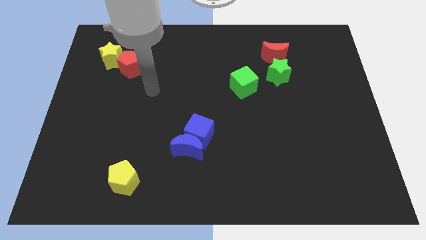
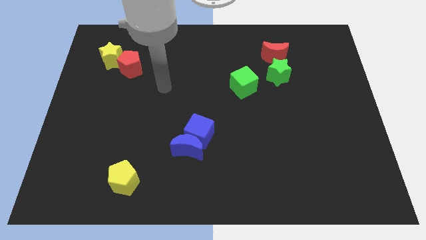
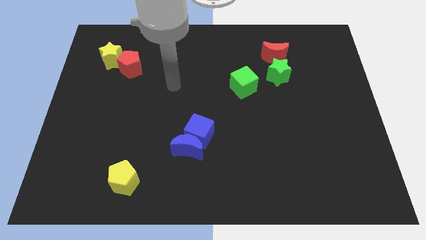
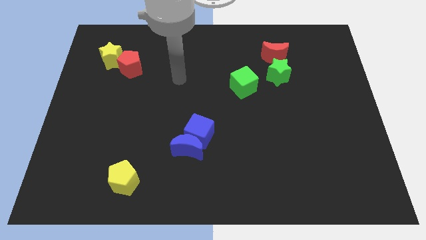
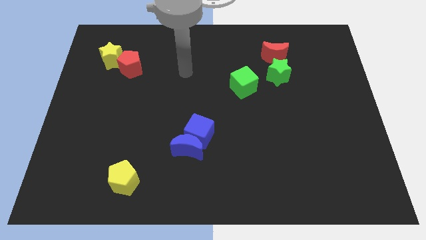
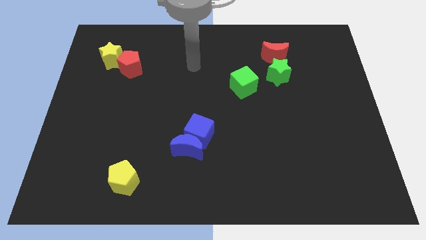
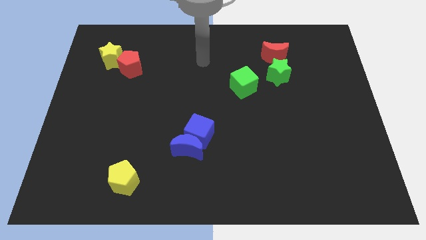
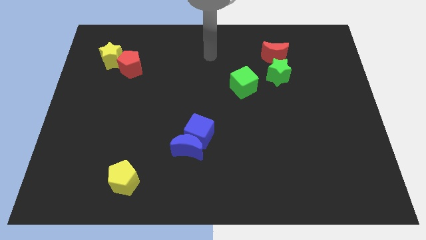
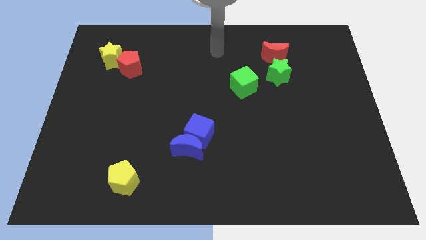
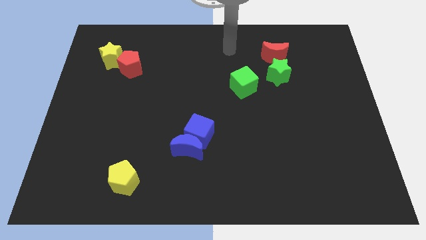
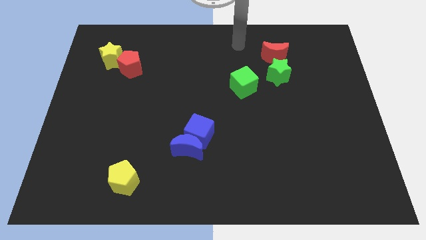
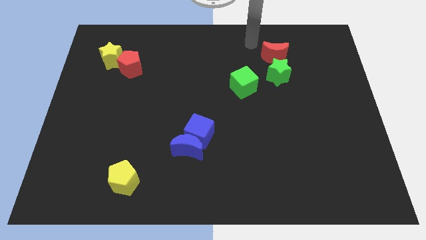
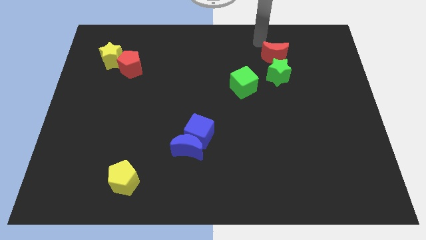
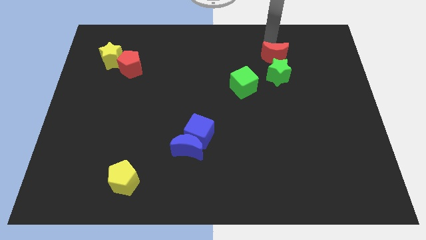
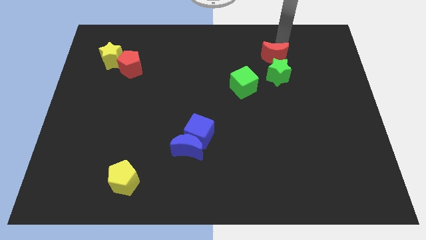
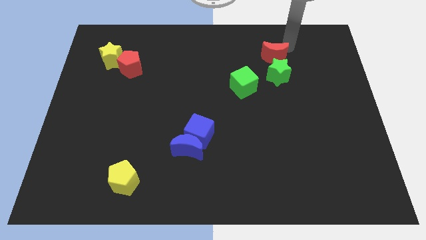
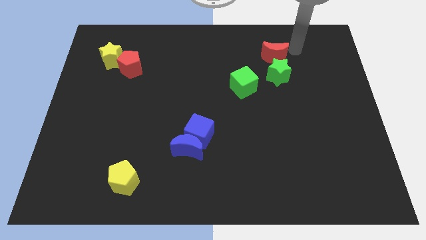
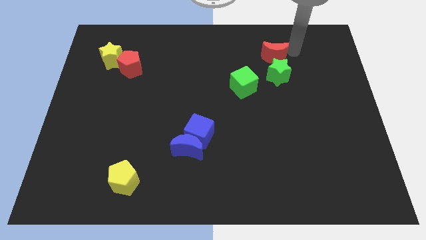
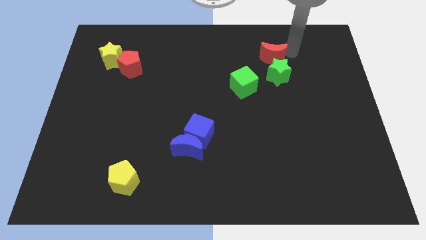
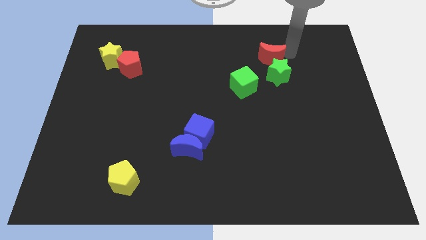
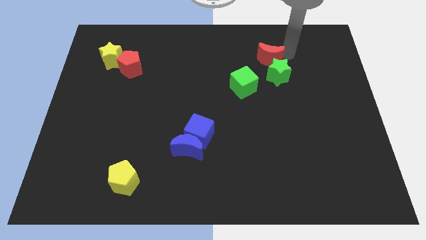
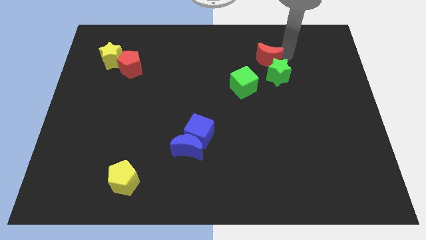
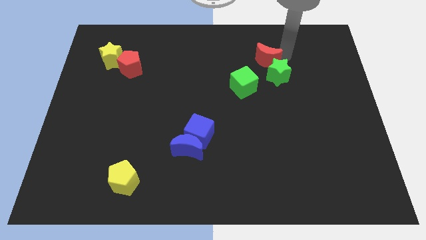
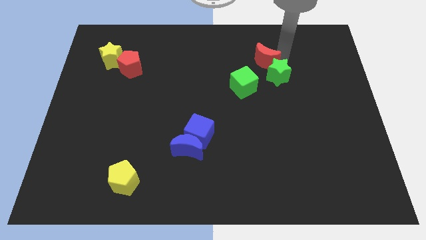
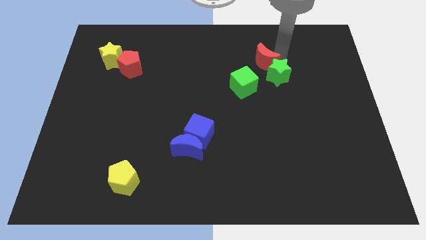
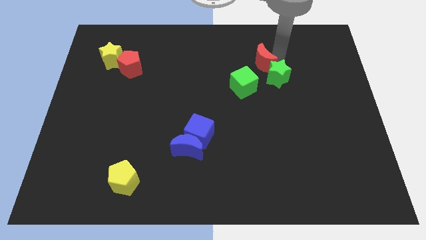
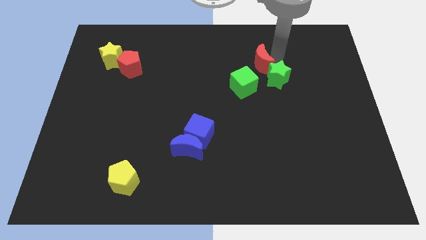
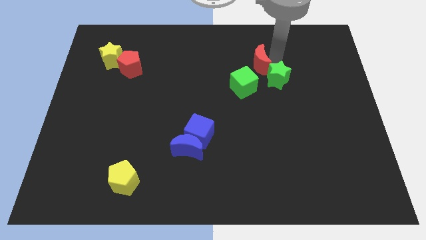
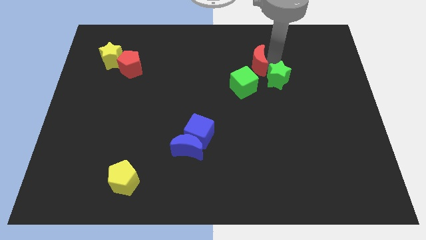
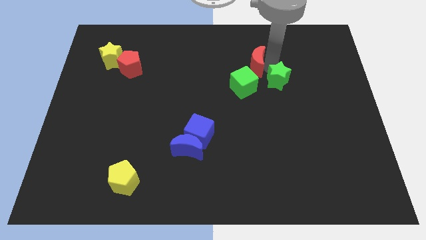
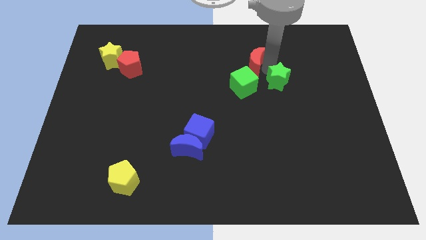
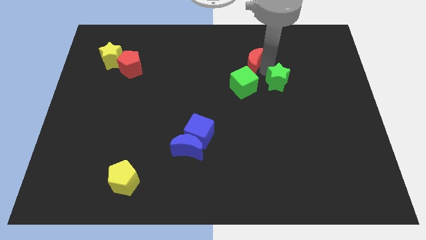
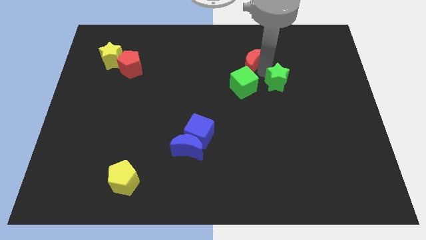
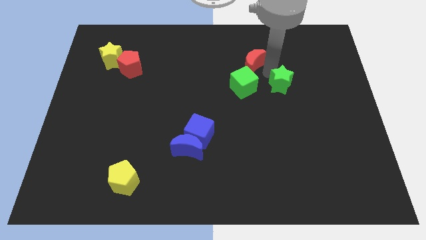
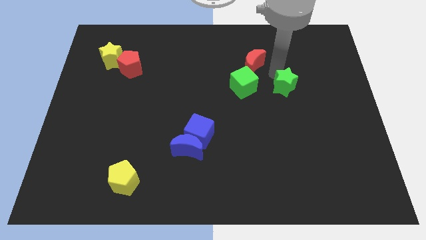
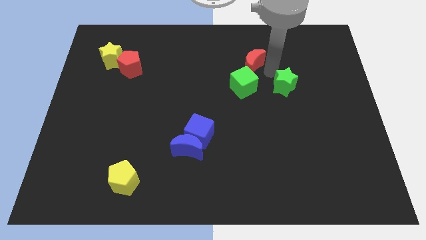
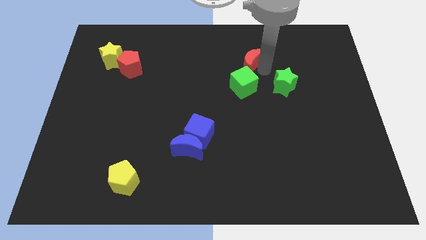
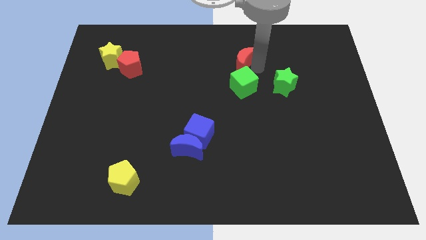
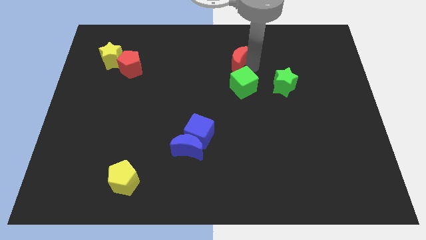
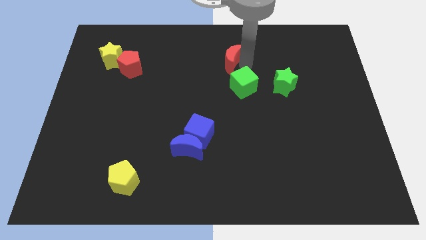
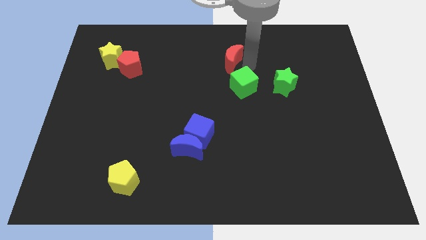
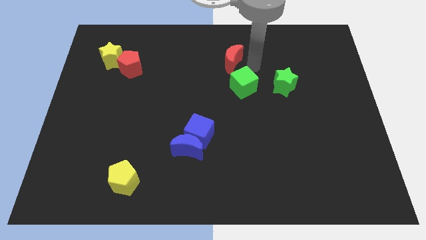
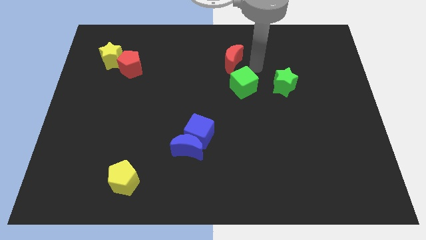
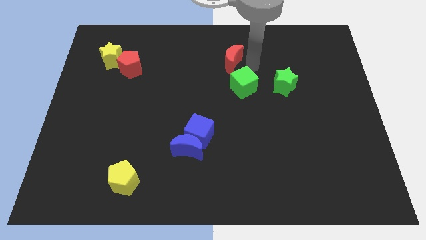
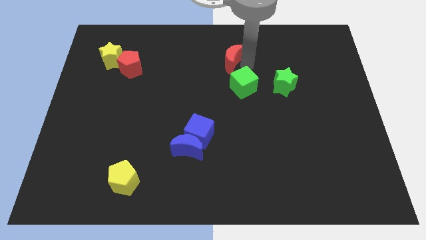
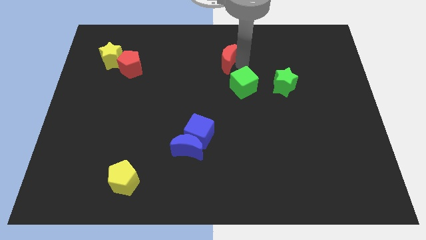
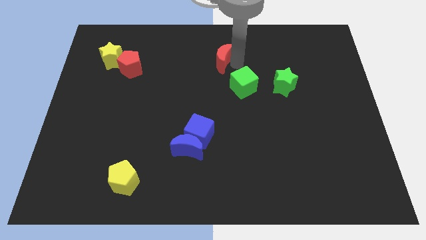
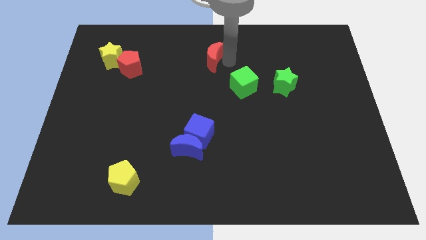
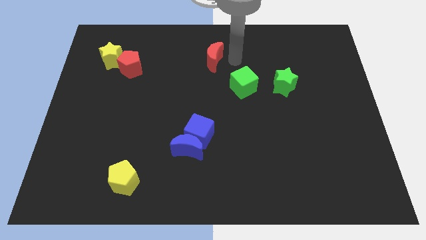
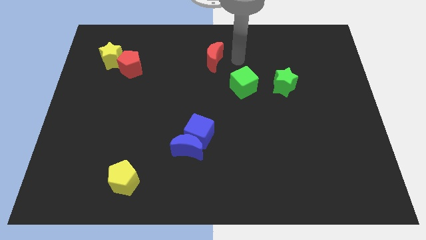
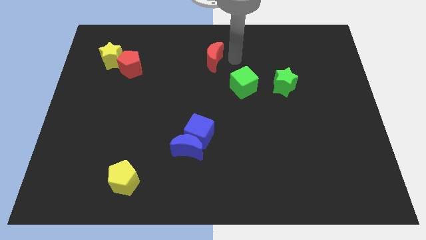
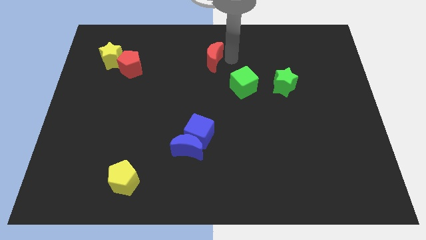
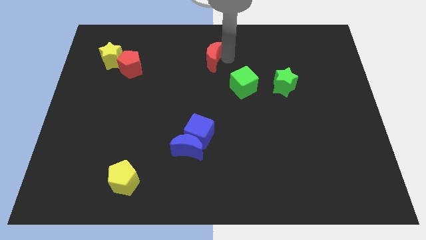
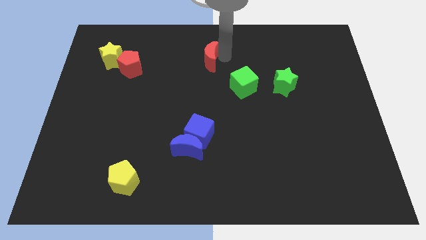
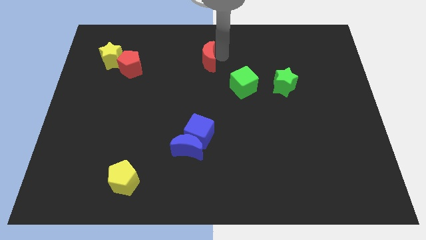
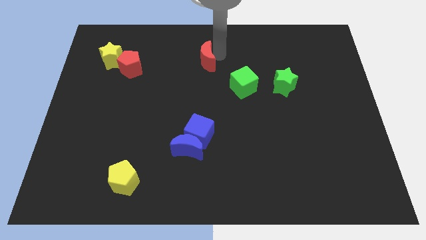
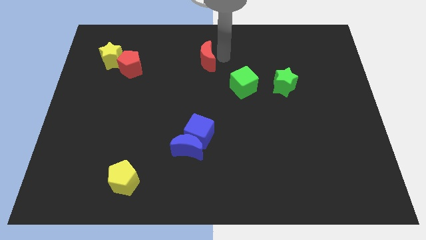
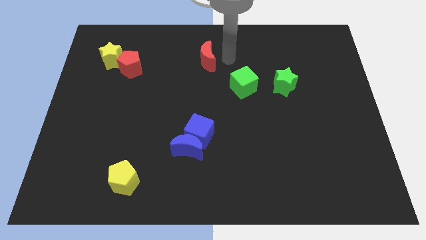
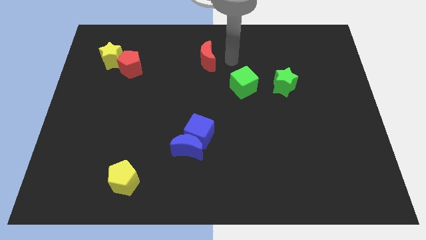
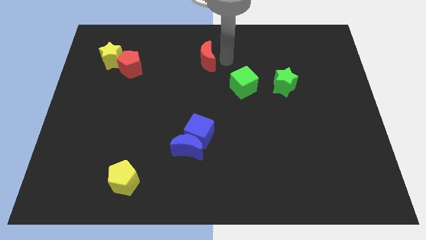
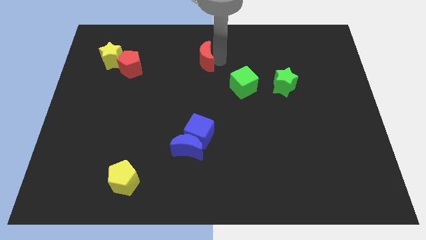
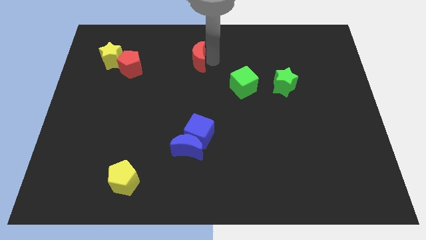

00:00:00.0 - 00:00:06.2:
move the red moon left

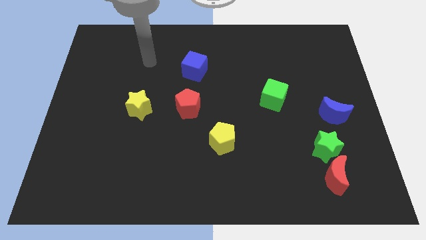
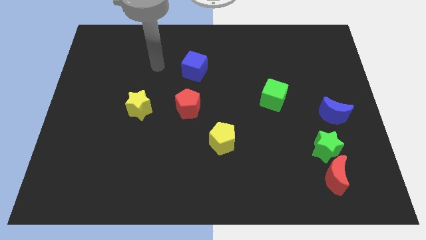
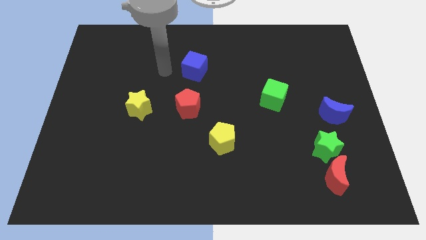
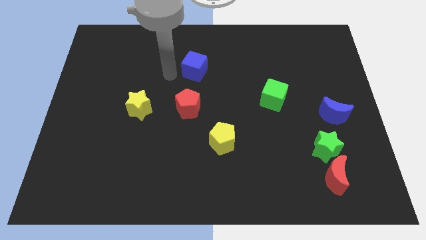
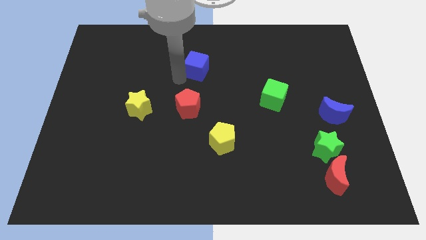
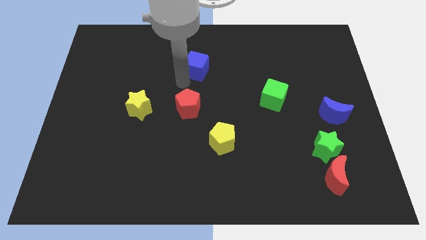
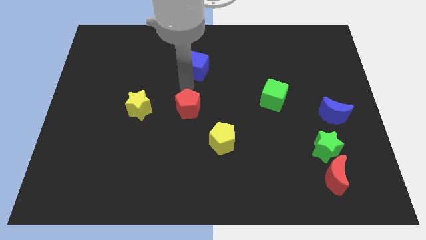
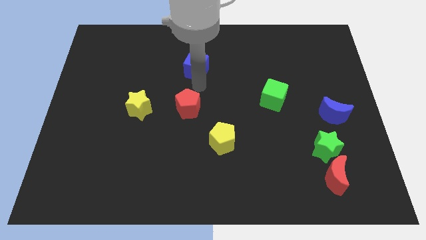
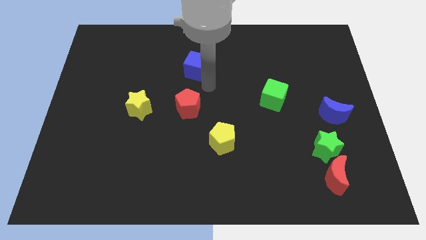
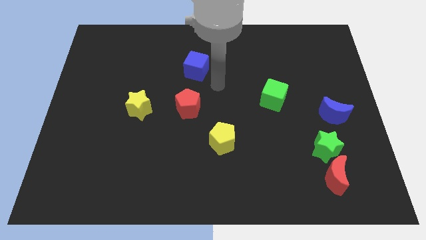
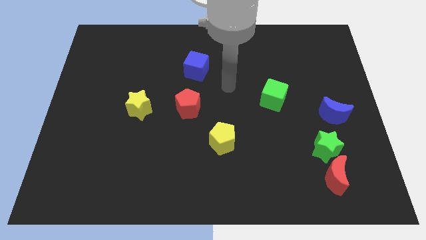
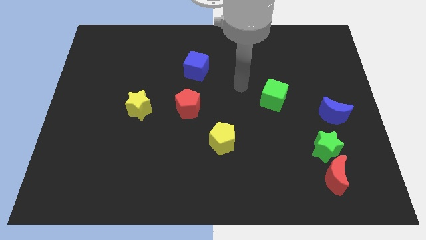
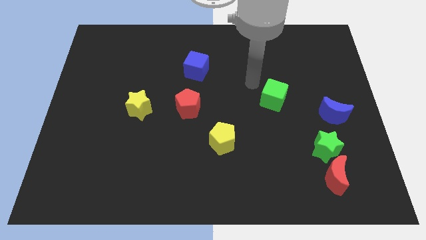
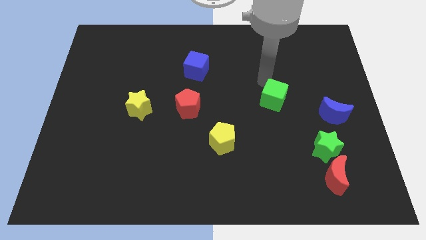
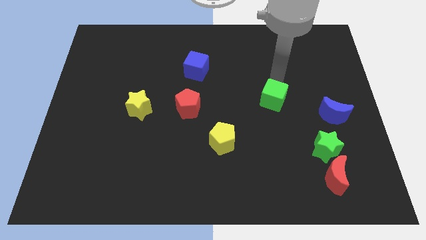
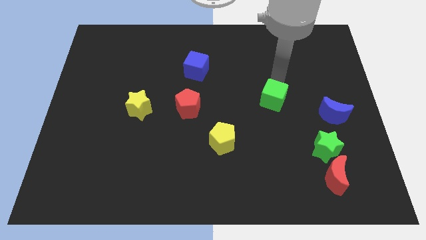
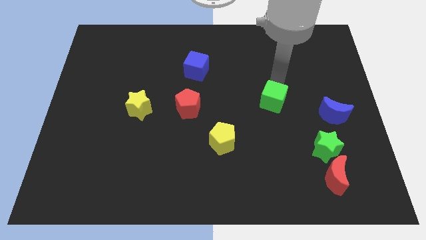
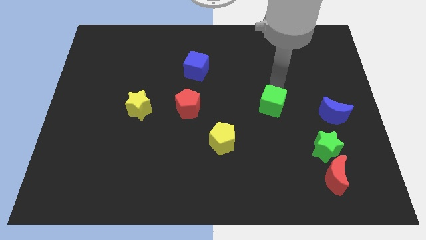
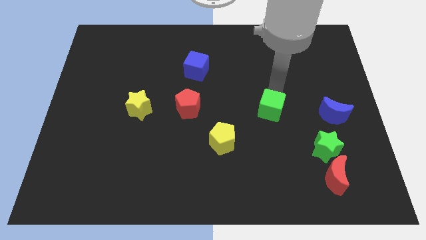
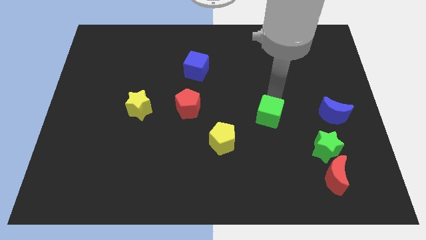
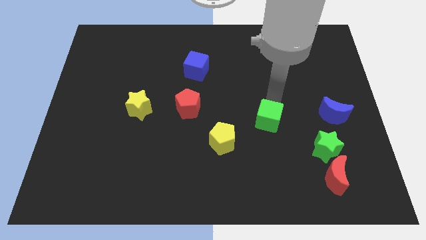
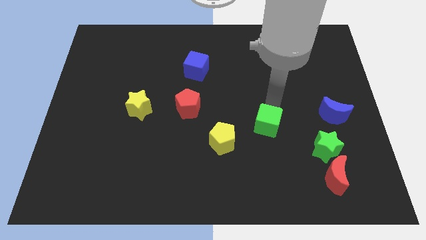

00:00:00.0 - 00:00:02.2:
slide the green cube downwards slightly
